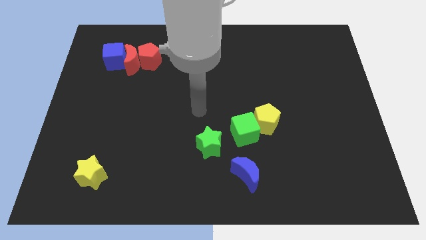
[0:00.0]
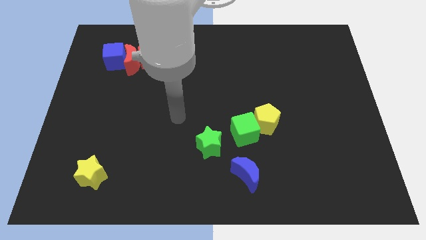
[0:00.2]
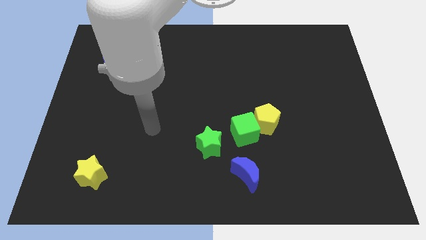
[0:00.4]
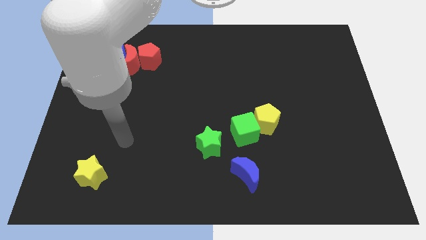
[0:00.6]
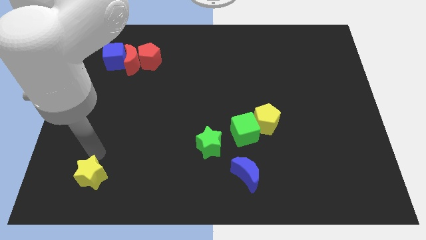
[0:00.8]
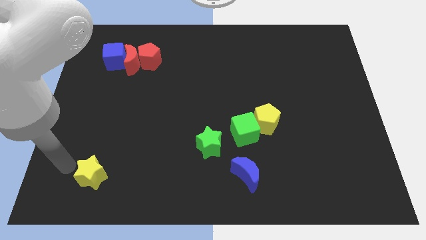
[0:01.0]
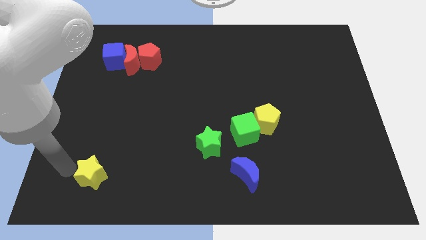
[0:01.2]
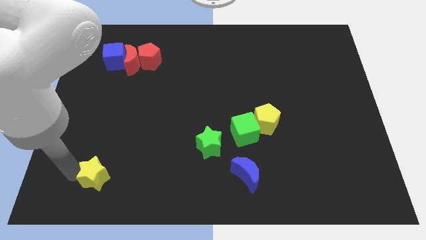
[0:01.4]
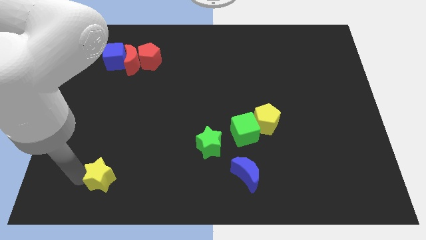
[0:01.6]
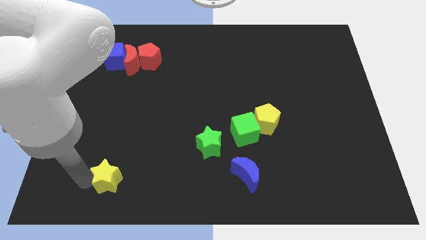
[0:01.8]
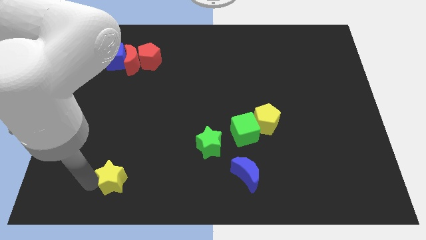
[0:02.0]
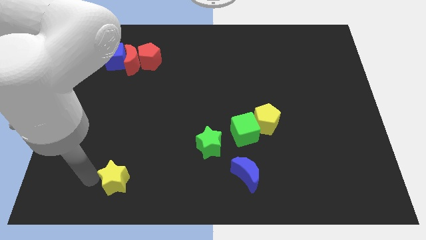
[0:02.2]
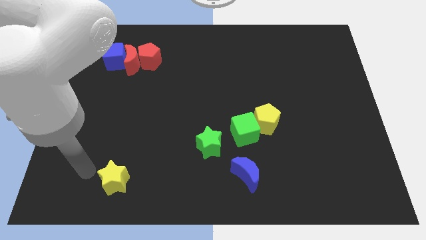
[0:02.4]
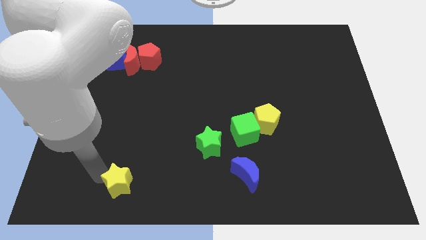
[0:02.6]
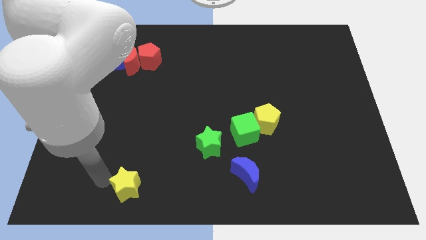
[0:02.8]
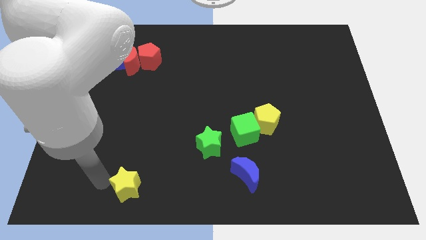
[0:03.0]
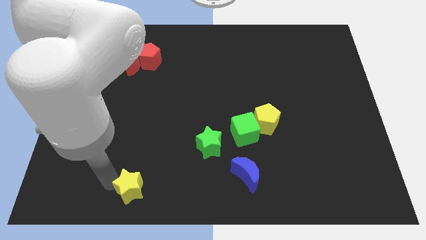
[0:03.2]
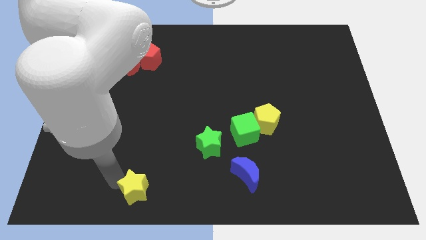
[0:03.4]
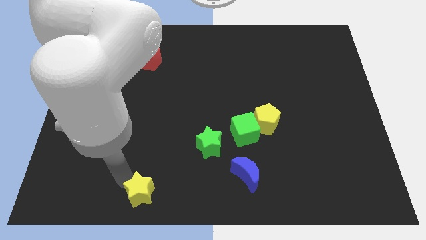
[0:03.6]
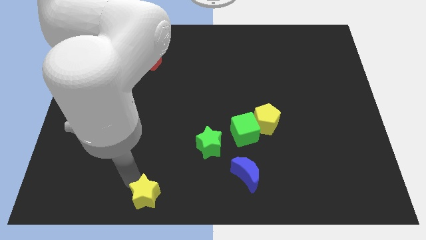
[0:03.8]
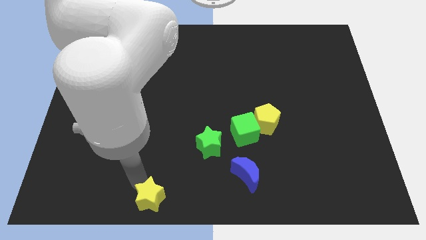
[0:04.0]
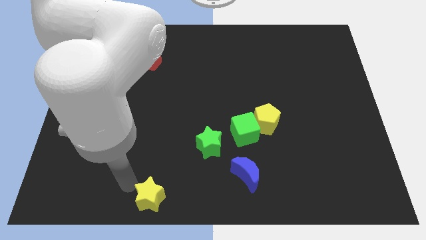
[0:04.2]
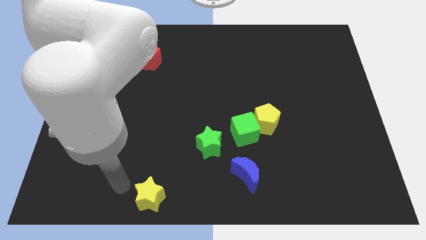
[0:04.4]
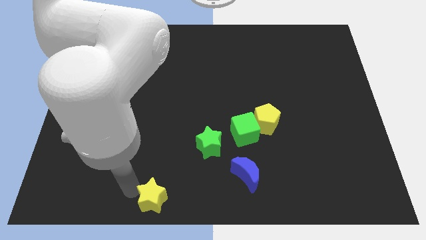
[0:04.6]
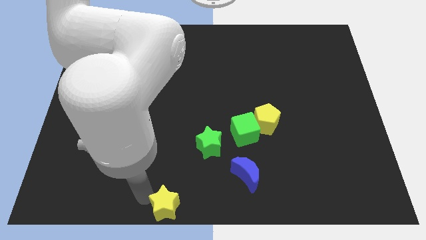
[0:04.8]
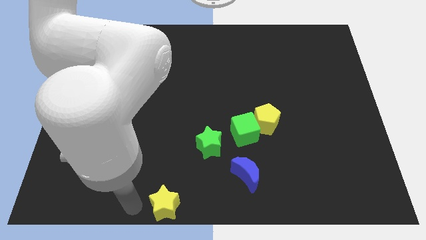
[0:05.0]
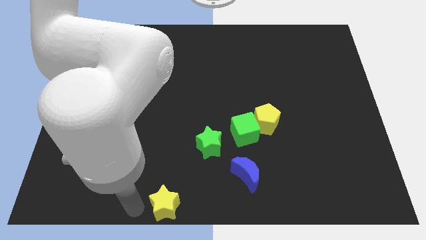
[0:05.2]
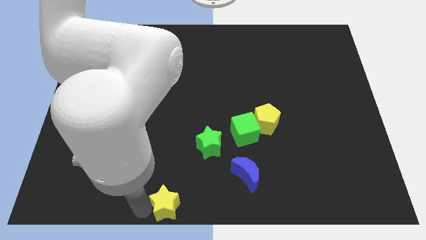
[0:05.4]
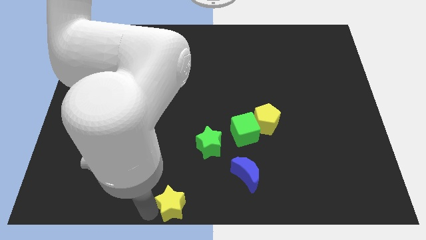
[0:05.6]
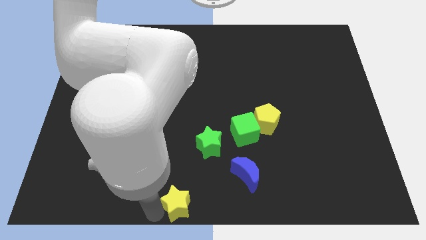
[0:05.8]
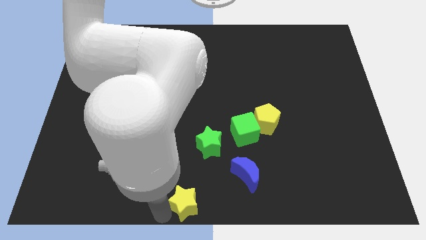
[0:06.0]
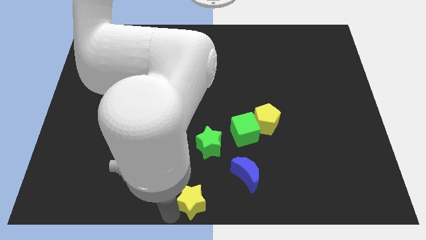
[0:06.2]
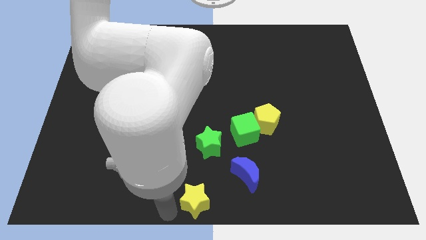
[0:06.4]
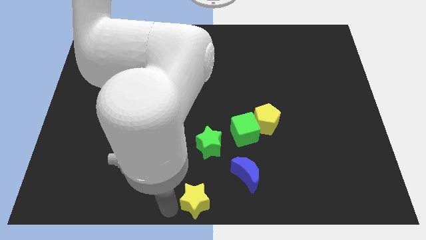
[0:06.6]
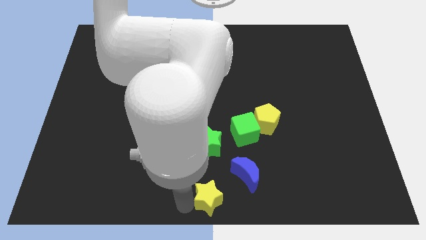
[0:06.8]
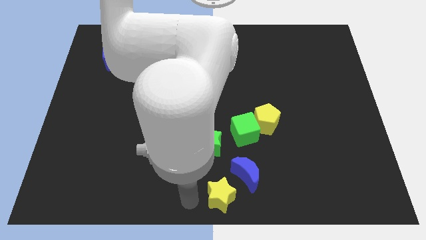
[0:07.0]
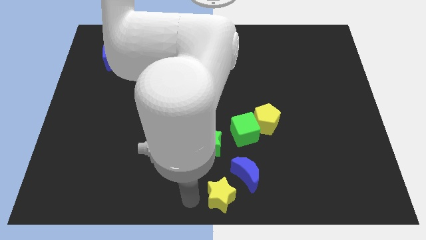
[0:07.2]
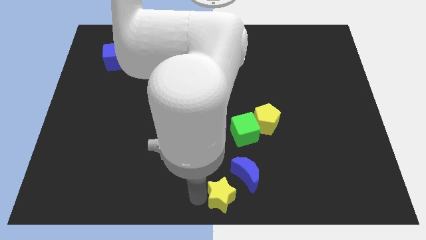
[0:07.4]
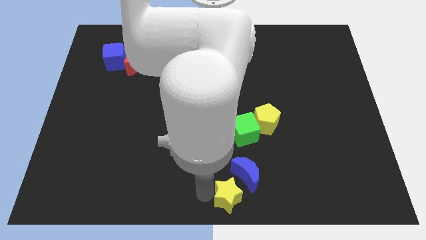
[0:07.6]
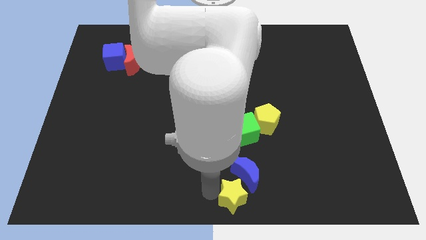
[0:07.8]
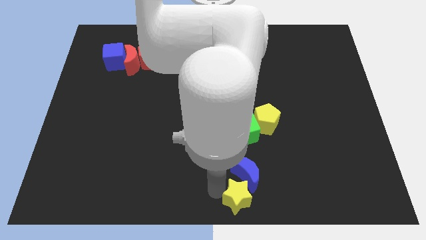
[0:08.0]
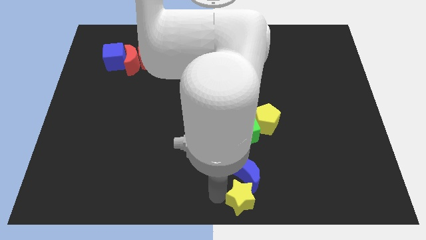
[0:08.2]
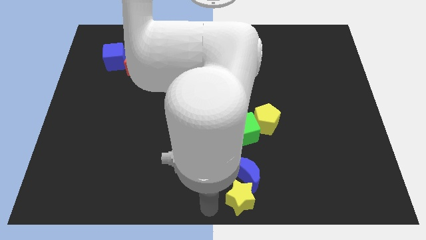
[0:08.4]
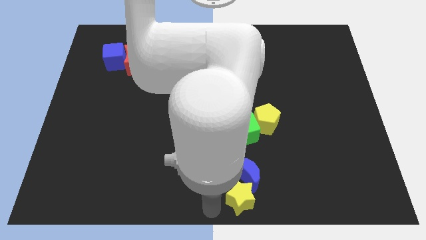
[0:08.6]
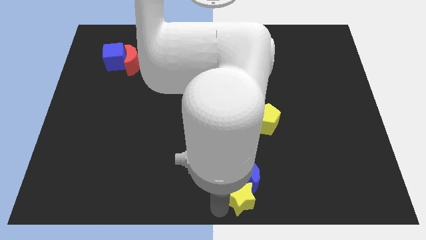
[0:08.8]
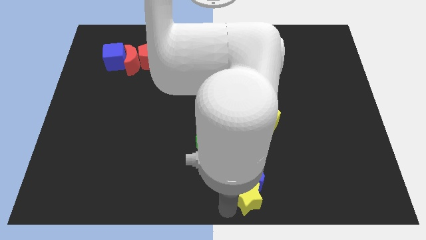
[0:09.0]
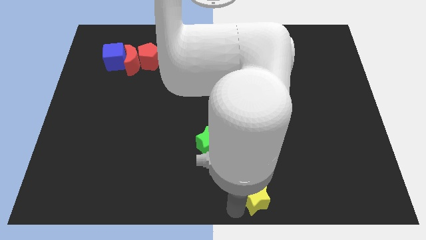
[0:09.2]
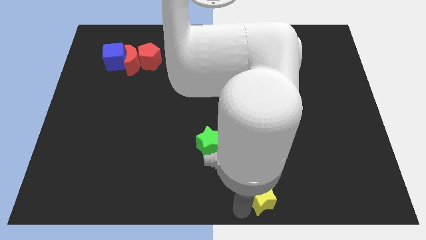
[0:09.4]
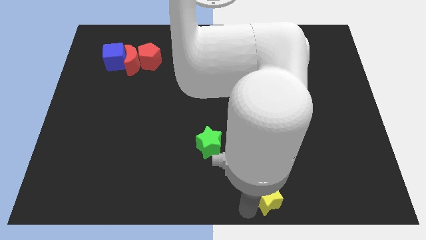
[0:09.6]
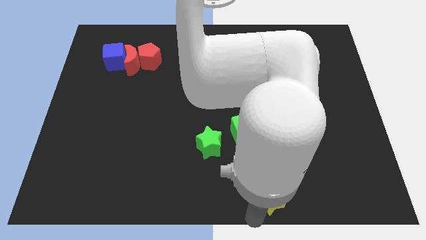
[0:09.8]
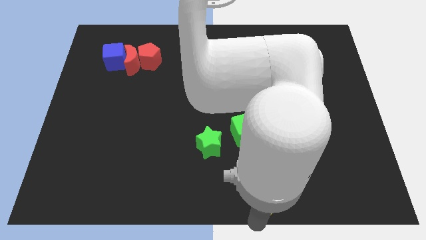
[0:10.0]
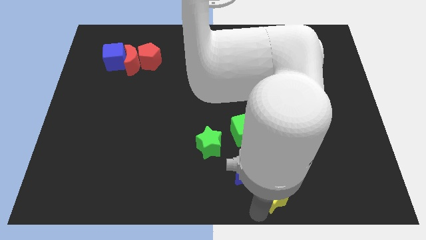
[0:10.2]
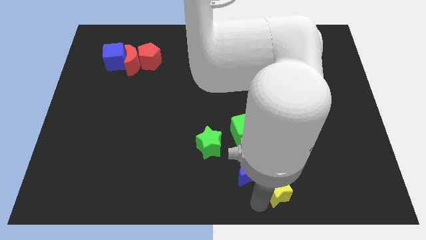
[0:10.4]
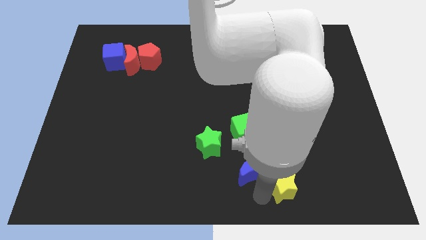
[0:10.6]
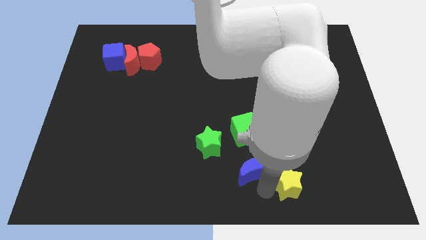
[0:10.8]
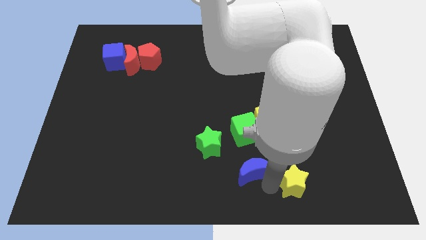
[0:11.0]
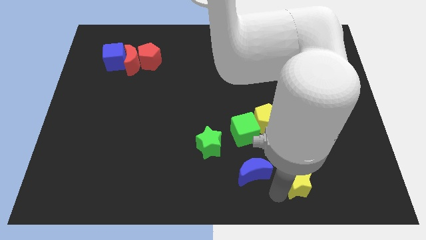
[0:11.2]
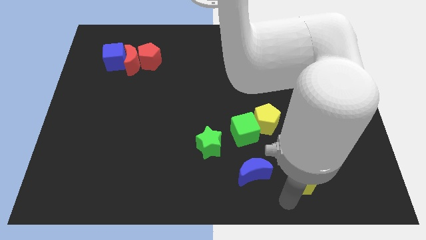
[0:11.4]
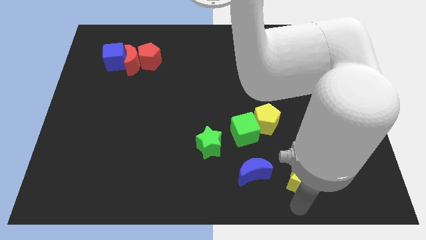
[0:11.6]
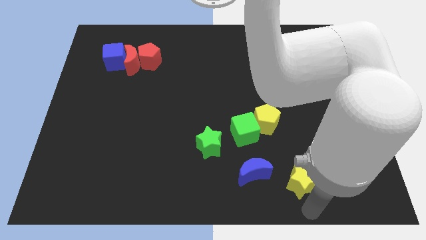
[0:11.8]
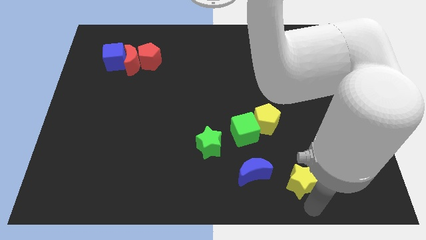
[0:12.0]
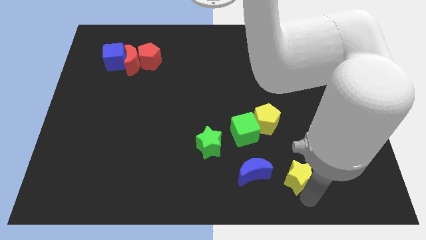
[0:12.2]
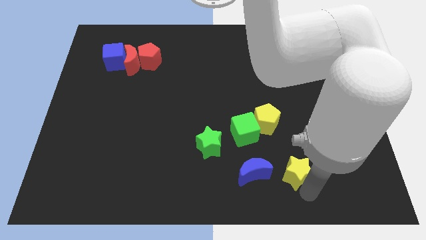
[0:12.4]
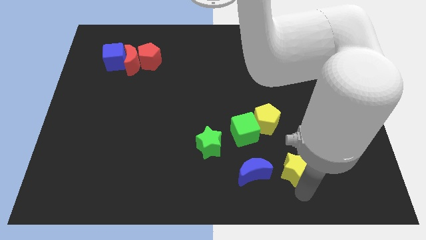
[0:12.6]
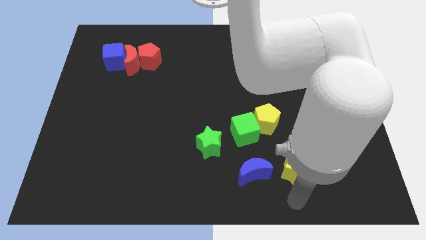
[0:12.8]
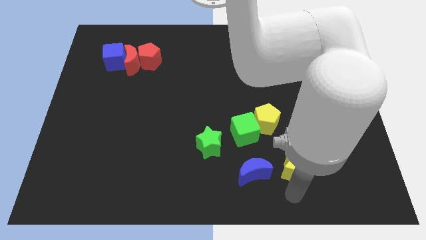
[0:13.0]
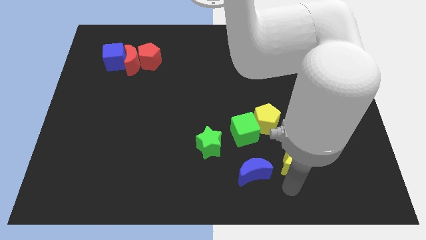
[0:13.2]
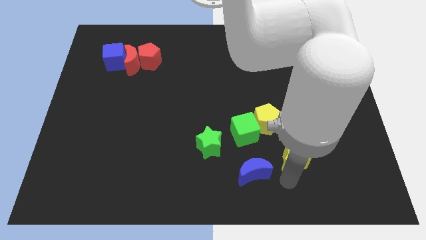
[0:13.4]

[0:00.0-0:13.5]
slide the yellow star to the bottom right of the yellow pentagon
